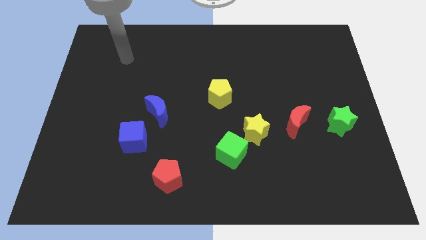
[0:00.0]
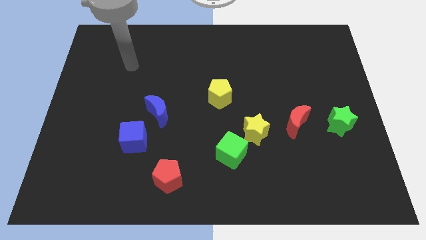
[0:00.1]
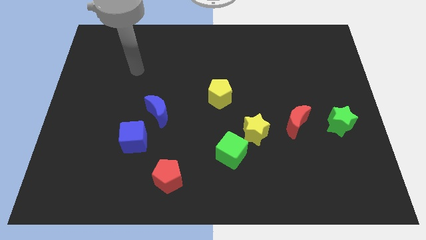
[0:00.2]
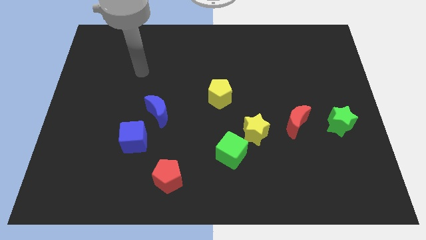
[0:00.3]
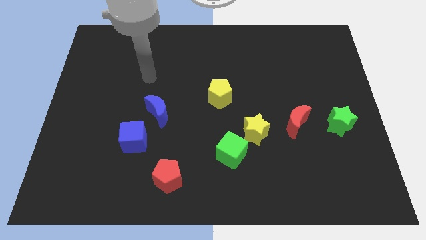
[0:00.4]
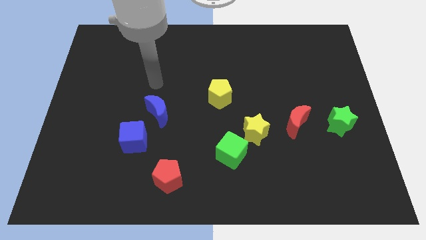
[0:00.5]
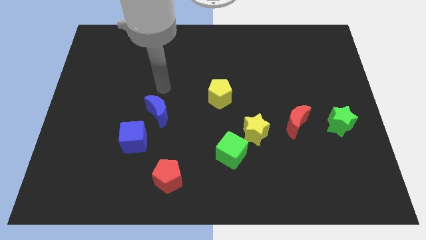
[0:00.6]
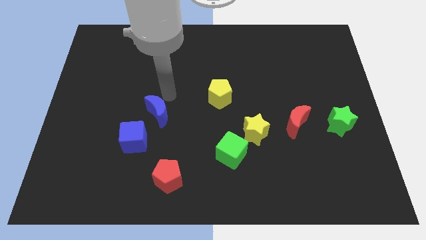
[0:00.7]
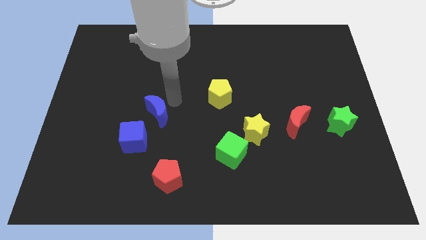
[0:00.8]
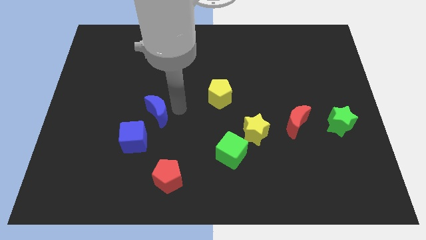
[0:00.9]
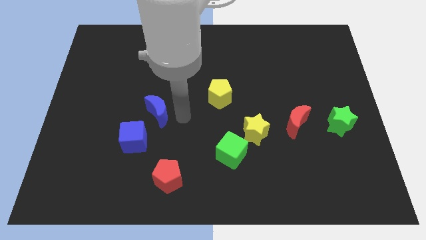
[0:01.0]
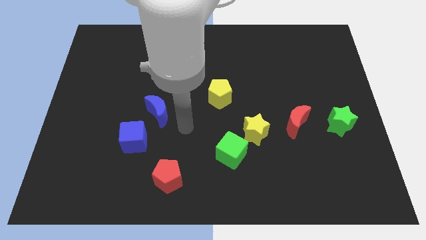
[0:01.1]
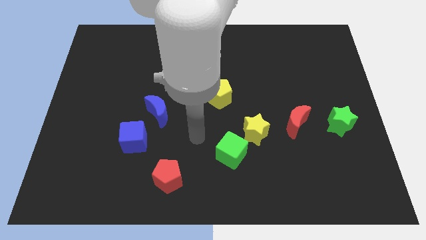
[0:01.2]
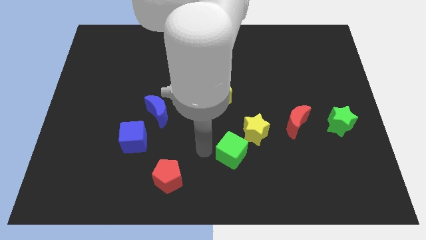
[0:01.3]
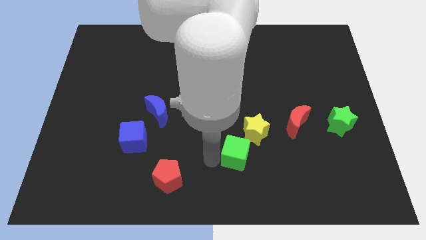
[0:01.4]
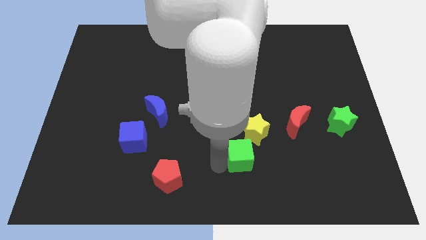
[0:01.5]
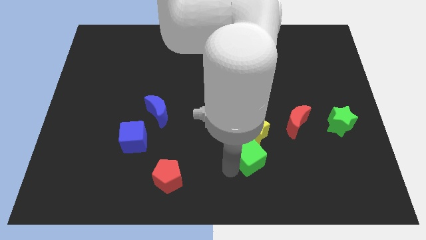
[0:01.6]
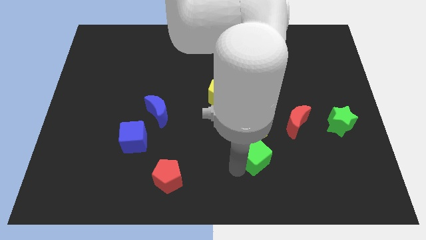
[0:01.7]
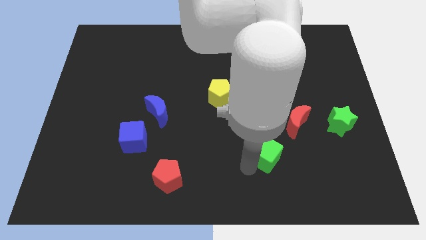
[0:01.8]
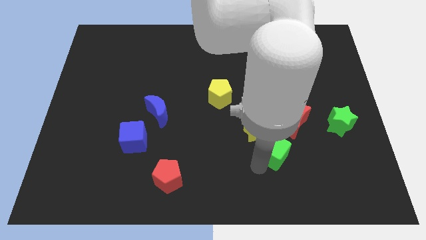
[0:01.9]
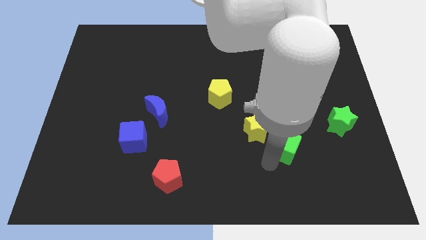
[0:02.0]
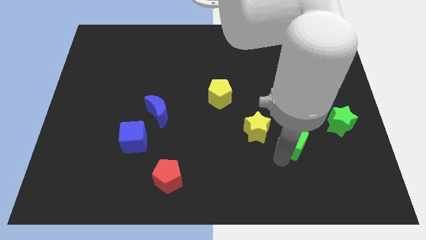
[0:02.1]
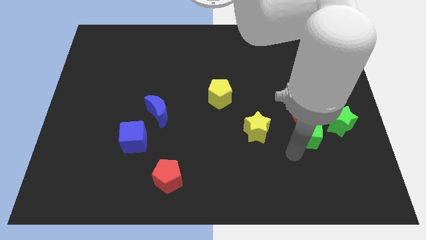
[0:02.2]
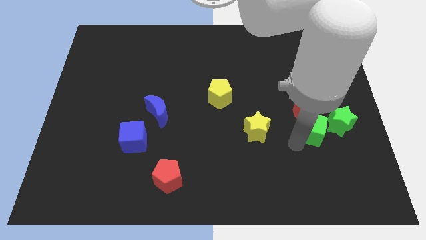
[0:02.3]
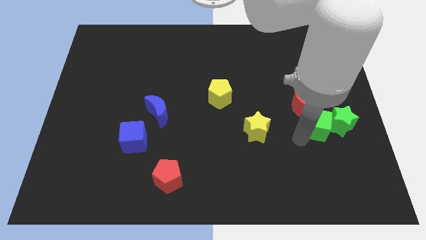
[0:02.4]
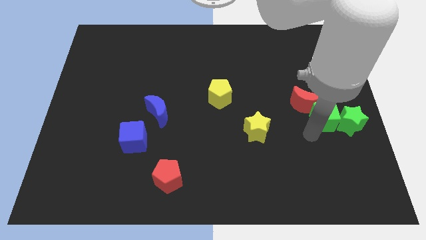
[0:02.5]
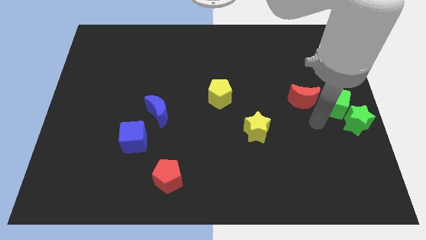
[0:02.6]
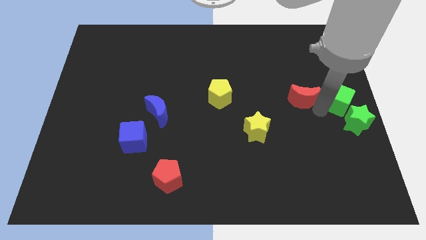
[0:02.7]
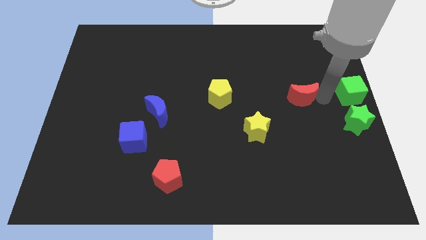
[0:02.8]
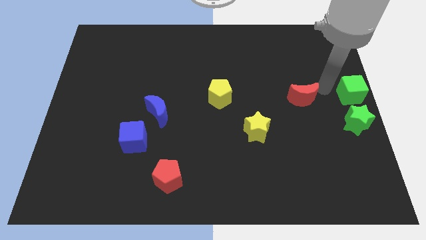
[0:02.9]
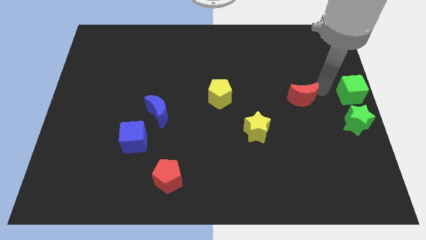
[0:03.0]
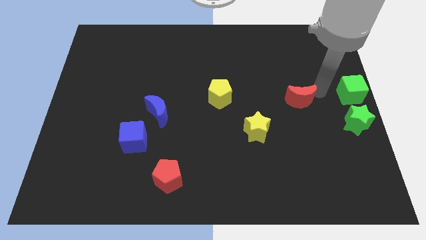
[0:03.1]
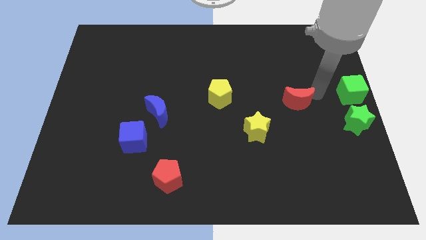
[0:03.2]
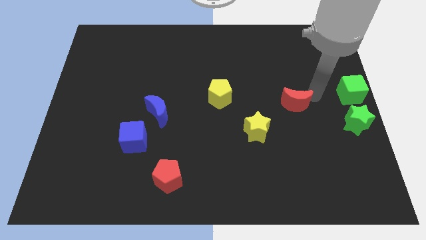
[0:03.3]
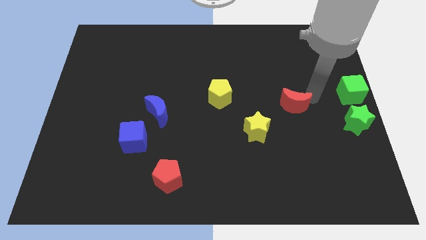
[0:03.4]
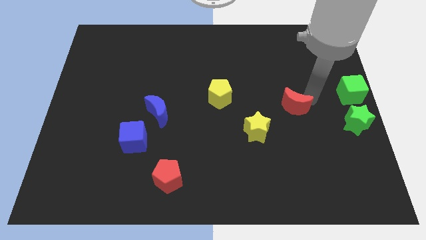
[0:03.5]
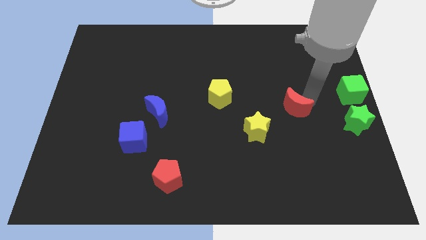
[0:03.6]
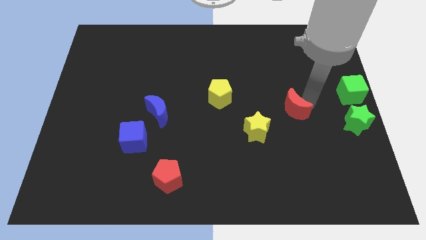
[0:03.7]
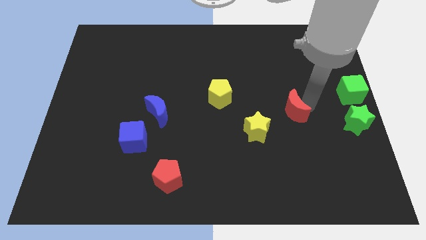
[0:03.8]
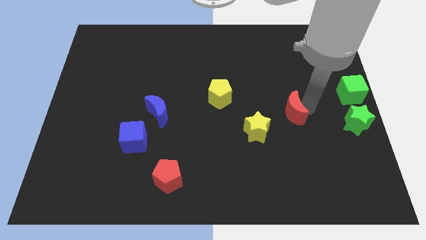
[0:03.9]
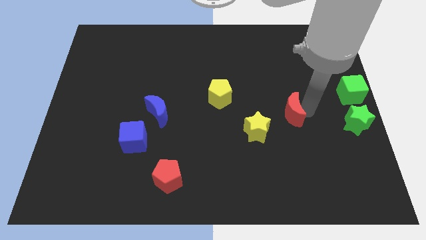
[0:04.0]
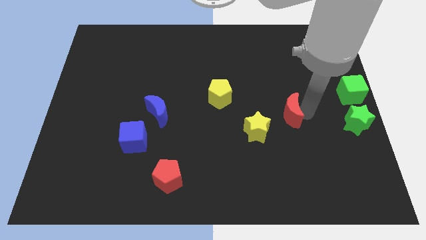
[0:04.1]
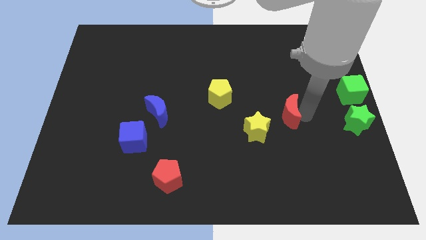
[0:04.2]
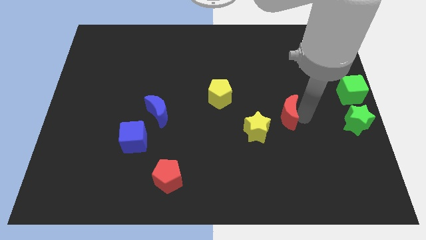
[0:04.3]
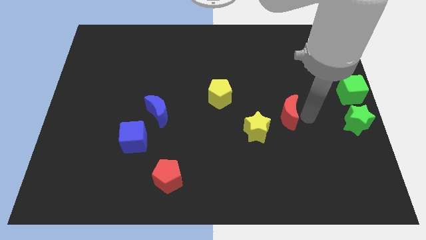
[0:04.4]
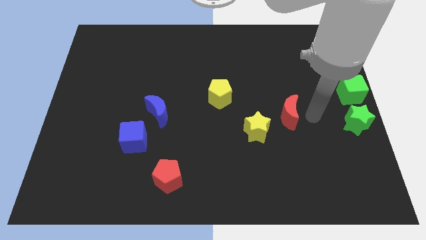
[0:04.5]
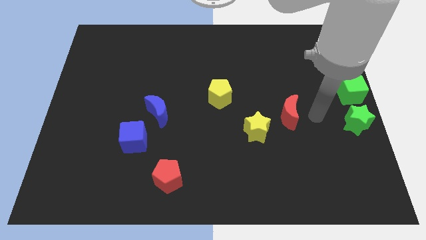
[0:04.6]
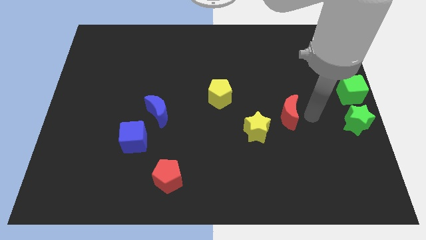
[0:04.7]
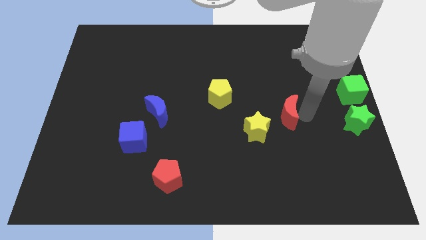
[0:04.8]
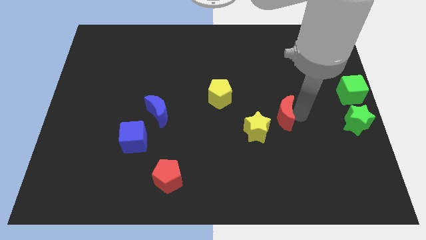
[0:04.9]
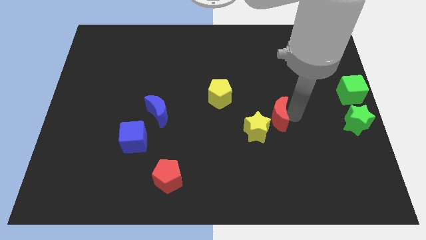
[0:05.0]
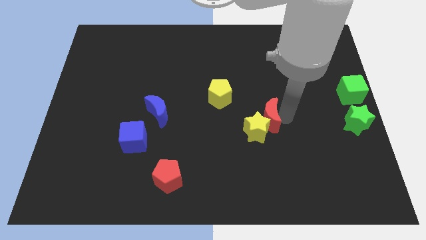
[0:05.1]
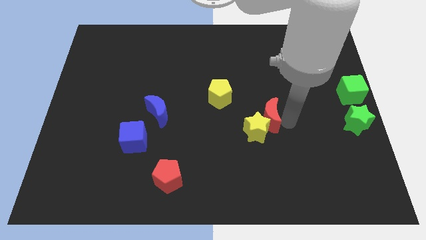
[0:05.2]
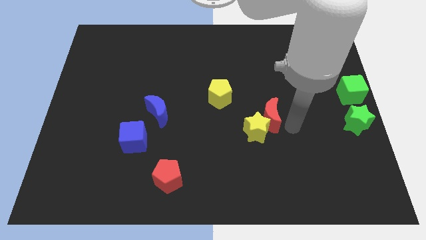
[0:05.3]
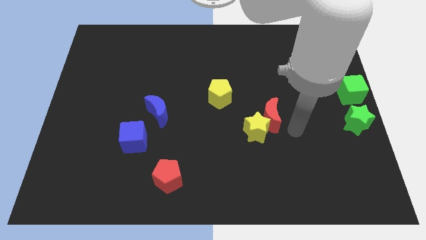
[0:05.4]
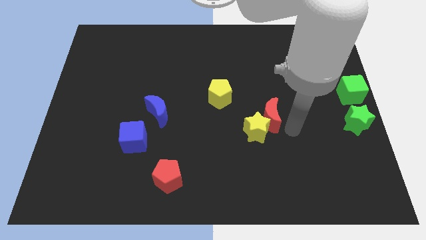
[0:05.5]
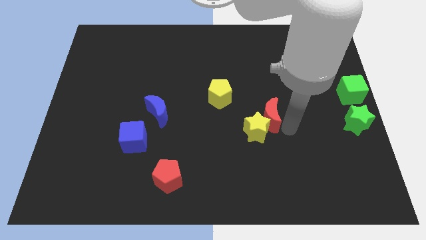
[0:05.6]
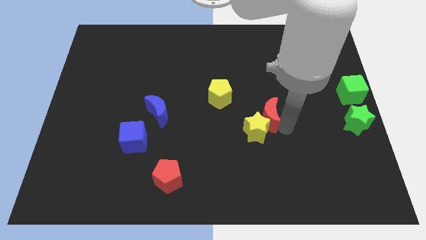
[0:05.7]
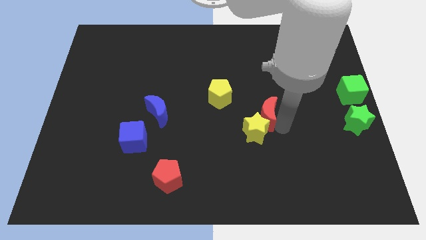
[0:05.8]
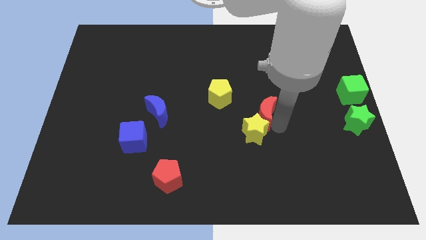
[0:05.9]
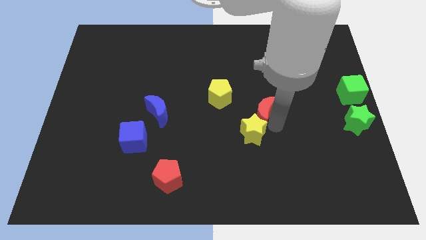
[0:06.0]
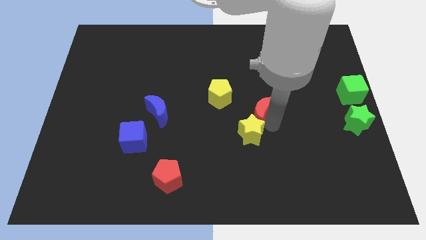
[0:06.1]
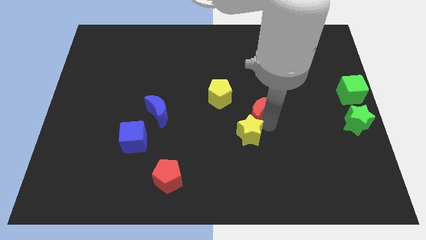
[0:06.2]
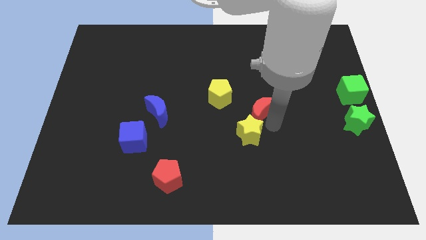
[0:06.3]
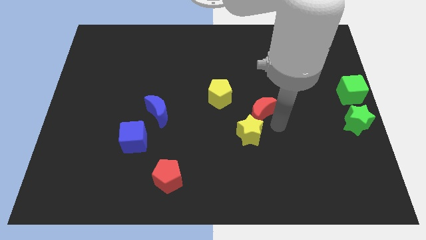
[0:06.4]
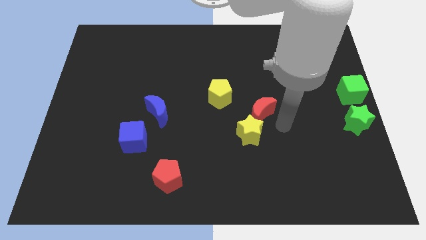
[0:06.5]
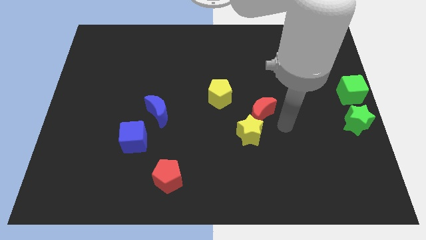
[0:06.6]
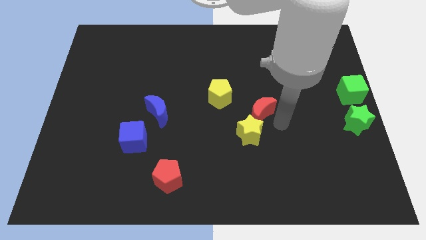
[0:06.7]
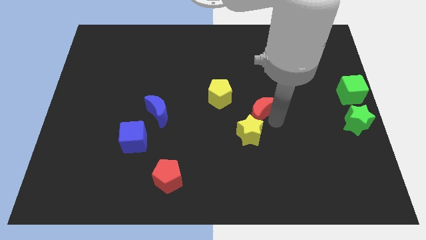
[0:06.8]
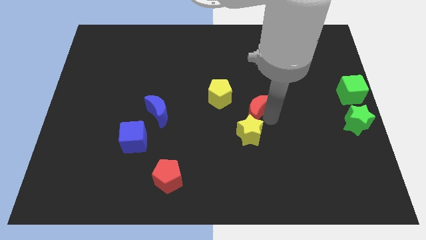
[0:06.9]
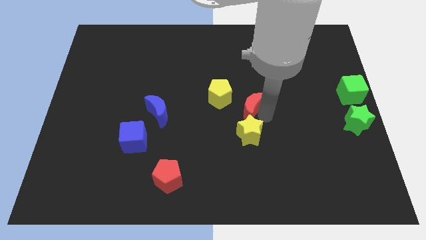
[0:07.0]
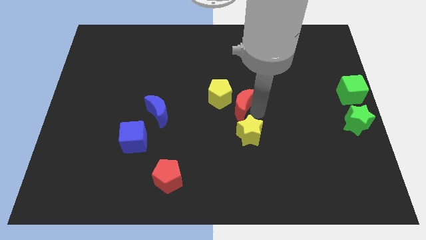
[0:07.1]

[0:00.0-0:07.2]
move the red moon close to the yellow pentagon
